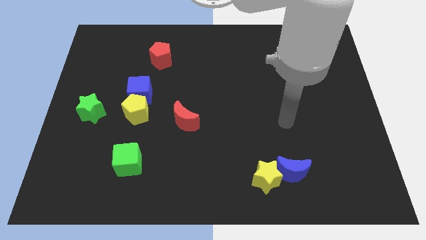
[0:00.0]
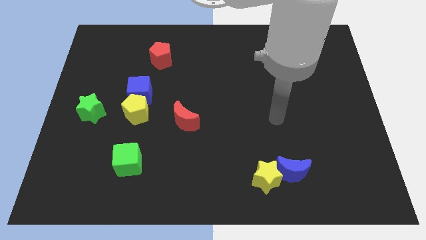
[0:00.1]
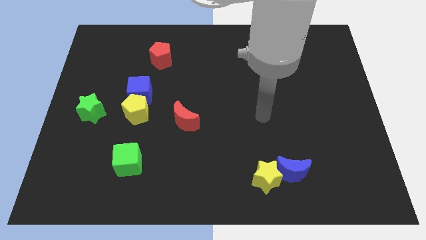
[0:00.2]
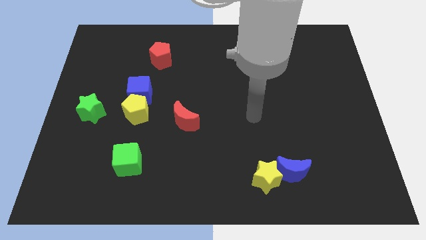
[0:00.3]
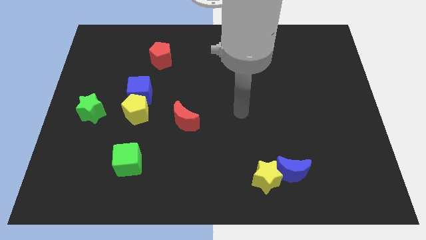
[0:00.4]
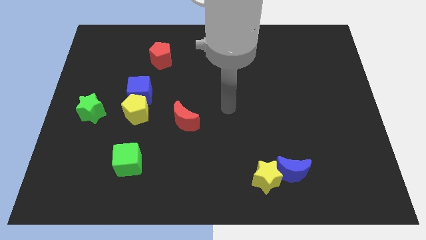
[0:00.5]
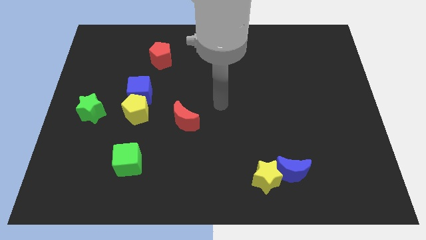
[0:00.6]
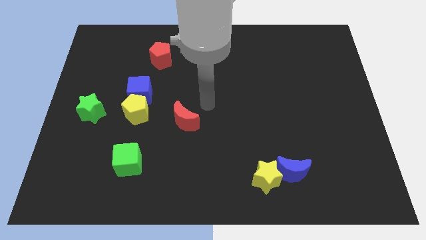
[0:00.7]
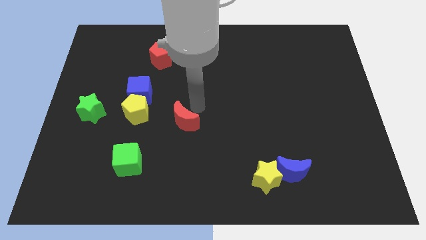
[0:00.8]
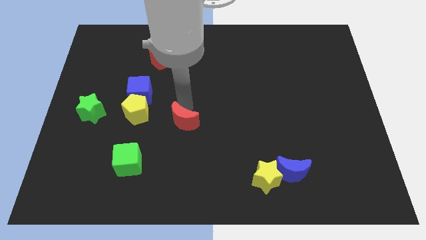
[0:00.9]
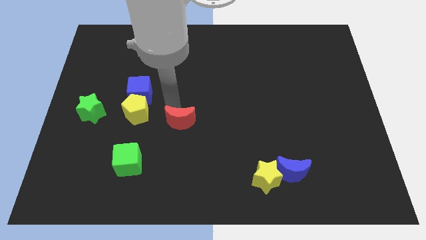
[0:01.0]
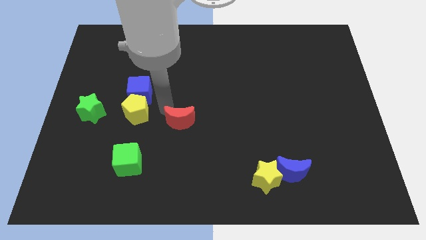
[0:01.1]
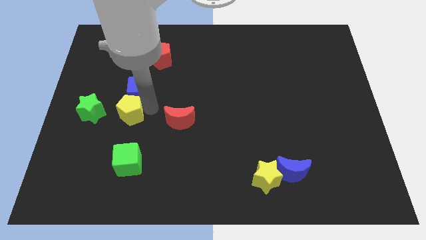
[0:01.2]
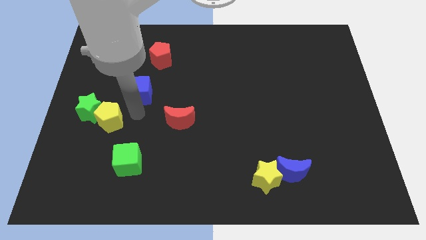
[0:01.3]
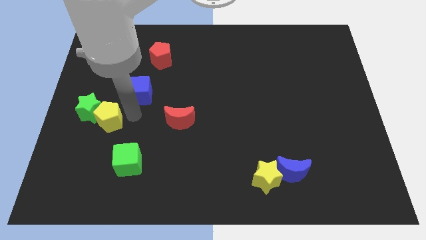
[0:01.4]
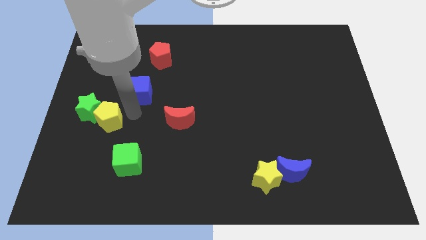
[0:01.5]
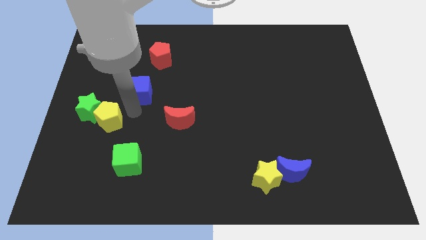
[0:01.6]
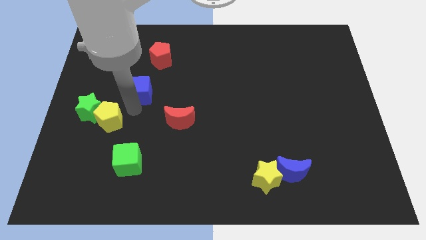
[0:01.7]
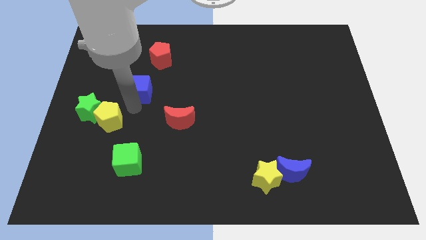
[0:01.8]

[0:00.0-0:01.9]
move the blue cube away from the yellow pentagon

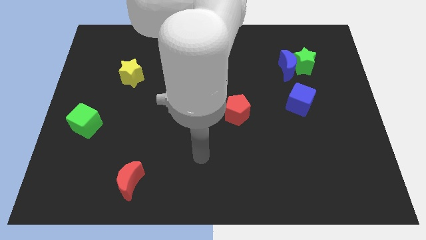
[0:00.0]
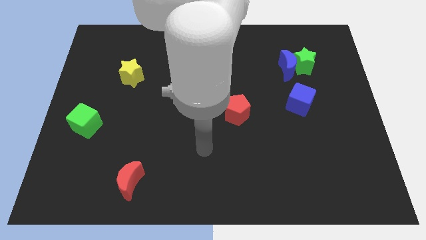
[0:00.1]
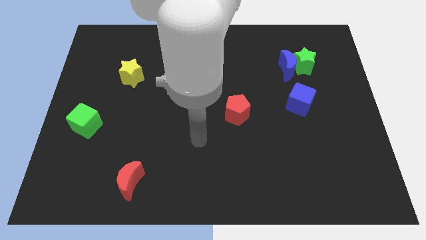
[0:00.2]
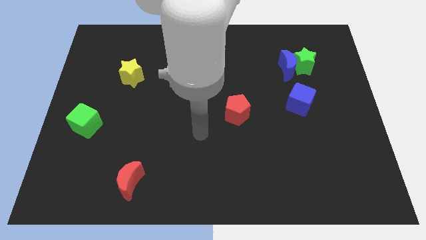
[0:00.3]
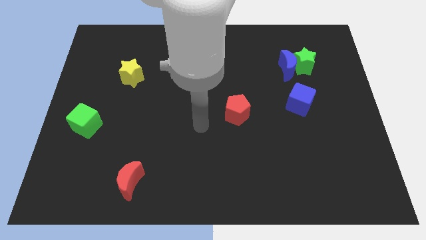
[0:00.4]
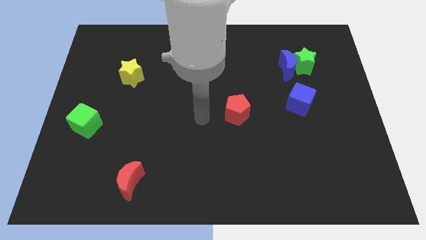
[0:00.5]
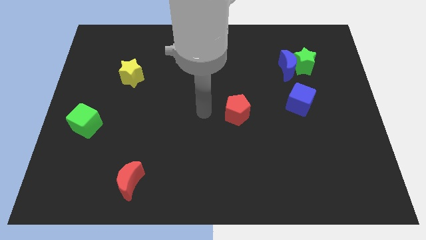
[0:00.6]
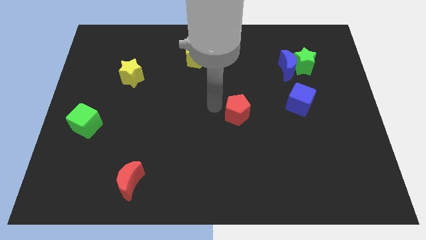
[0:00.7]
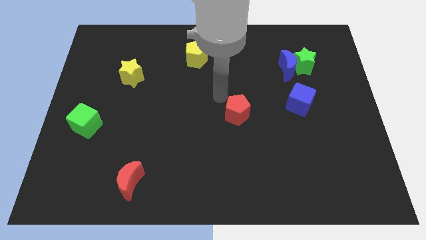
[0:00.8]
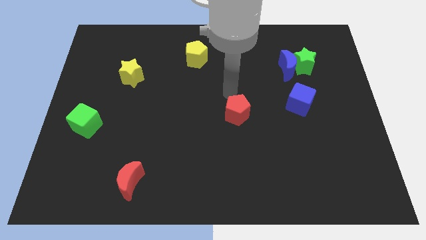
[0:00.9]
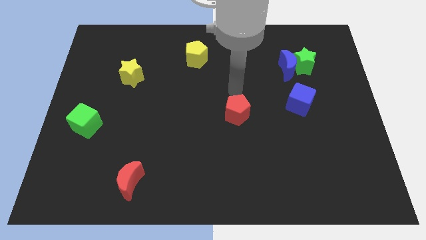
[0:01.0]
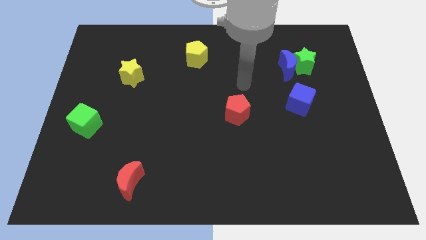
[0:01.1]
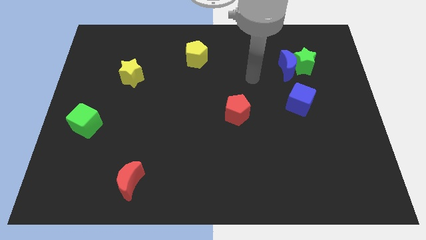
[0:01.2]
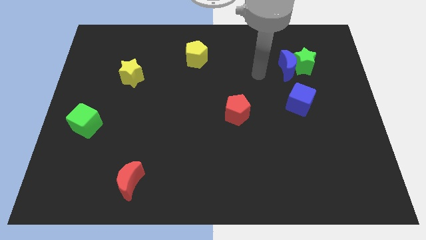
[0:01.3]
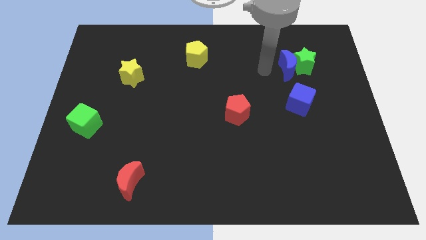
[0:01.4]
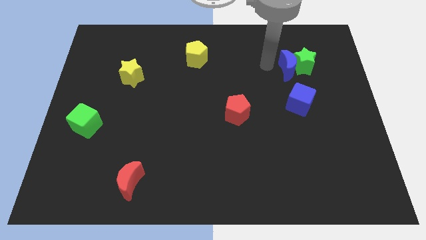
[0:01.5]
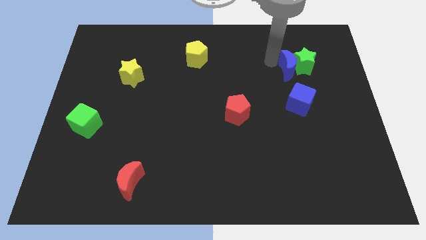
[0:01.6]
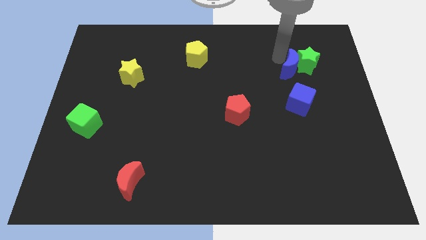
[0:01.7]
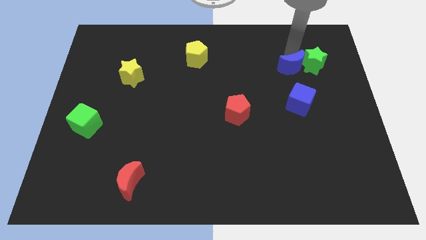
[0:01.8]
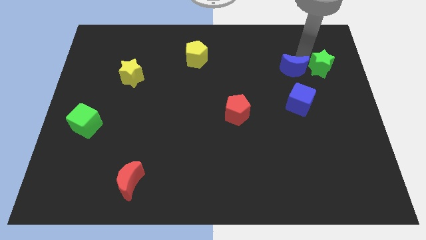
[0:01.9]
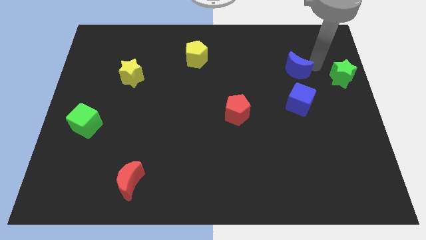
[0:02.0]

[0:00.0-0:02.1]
separate the blue moon from the green star

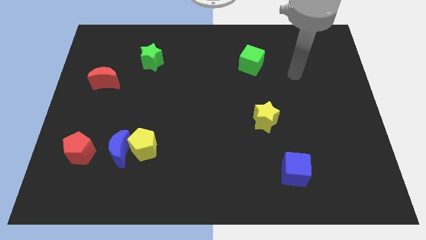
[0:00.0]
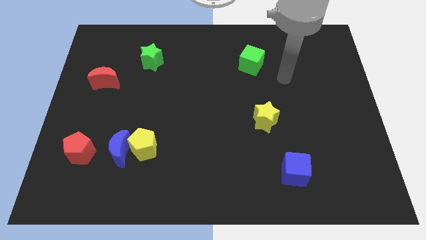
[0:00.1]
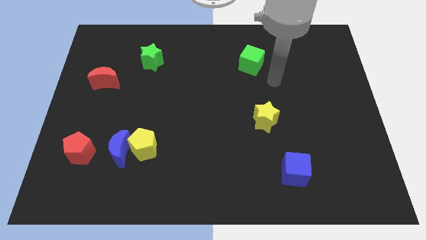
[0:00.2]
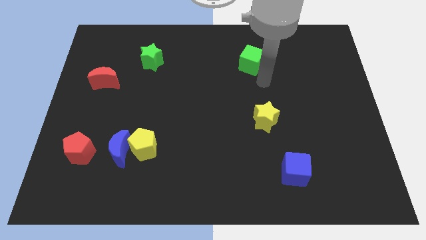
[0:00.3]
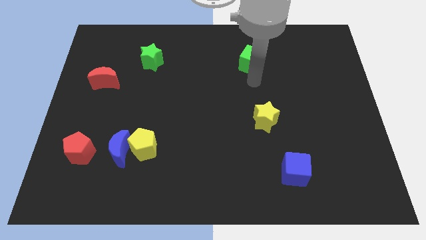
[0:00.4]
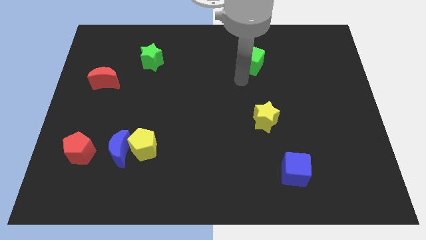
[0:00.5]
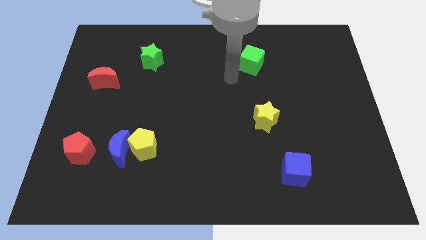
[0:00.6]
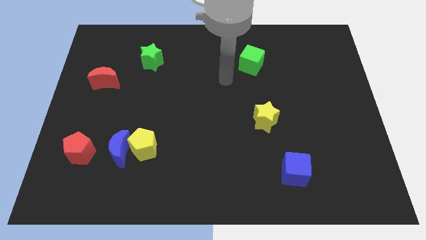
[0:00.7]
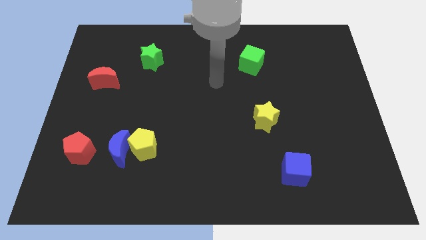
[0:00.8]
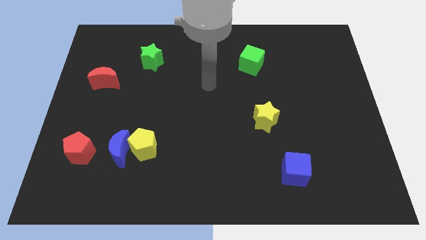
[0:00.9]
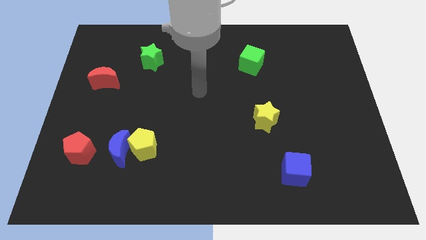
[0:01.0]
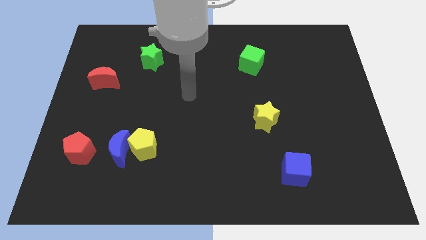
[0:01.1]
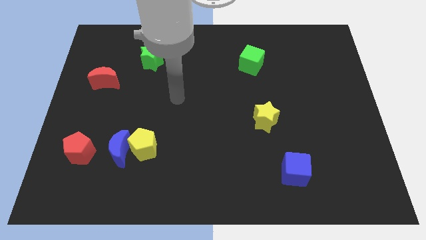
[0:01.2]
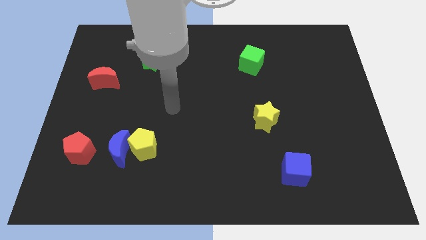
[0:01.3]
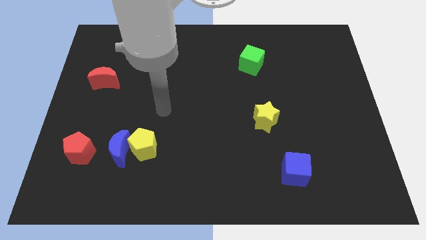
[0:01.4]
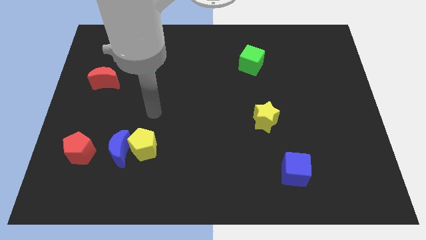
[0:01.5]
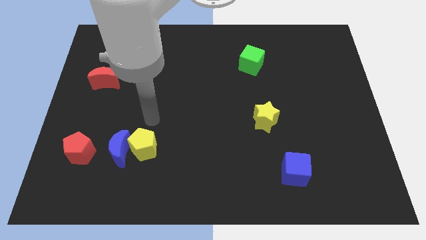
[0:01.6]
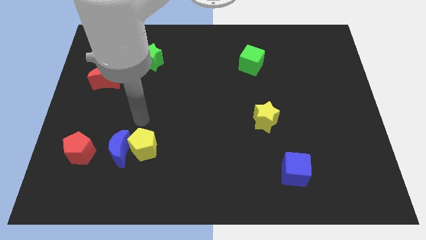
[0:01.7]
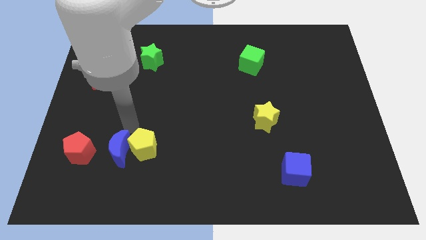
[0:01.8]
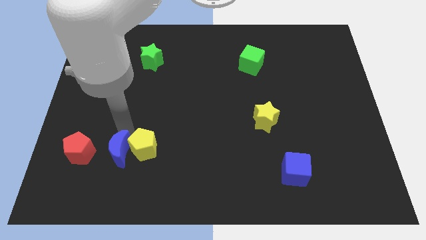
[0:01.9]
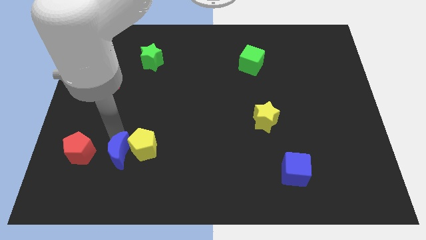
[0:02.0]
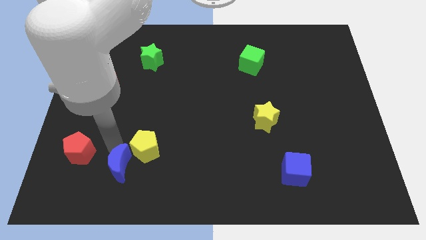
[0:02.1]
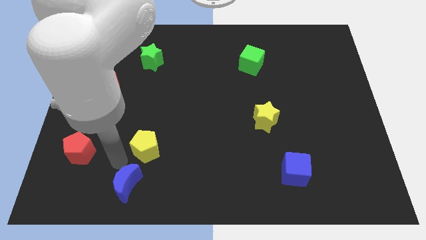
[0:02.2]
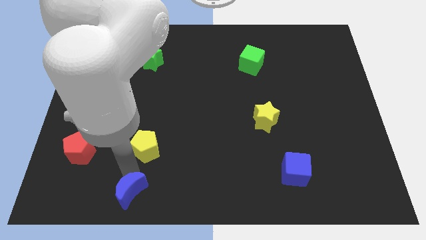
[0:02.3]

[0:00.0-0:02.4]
pull the yellow pentagon apart from the blue moon

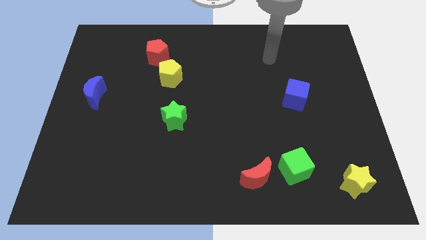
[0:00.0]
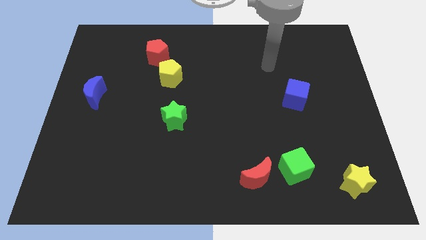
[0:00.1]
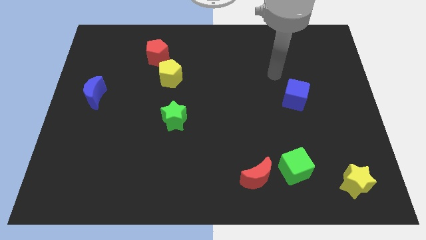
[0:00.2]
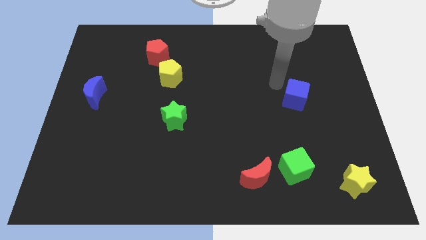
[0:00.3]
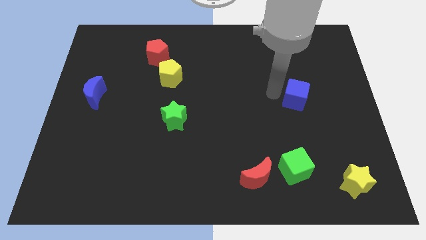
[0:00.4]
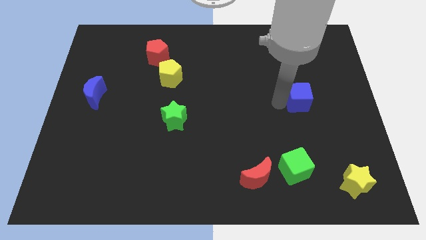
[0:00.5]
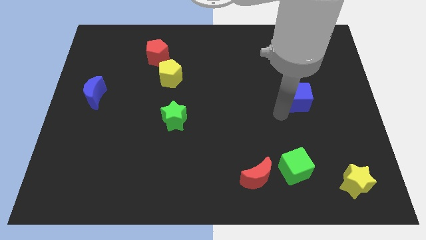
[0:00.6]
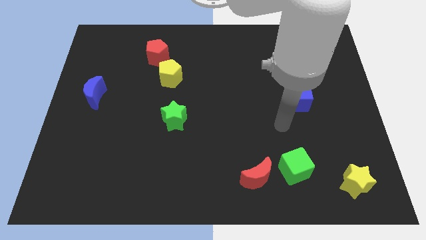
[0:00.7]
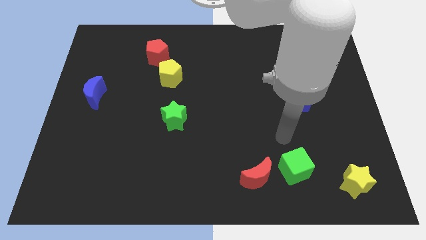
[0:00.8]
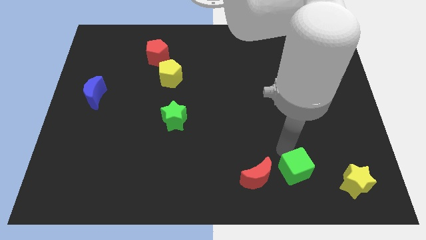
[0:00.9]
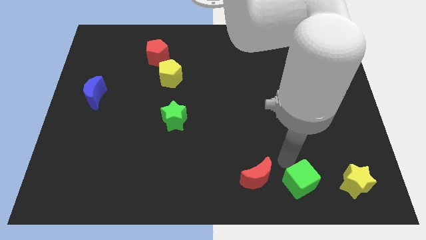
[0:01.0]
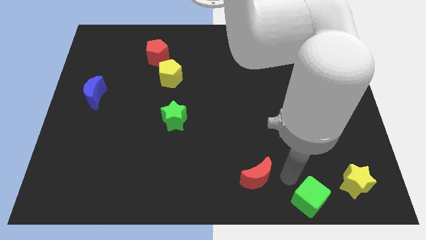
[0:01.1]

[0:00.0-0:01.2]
pull the red moon apart from the green cube

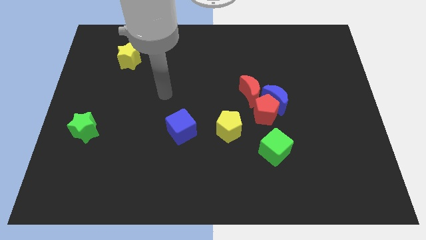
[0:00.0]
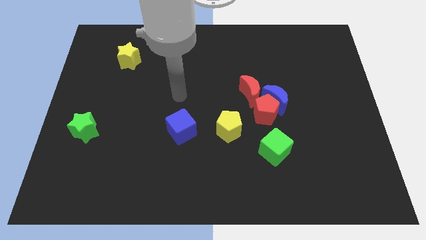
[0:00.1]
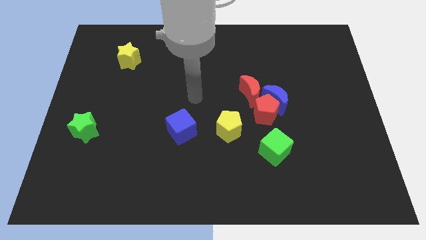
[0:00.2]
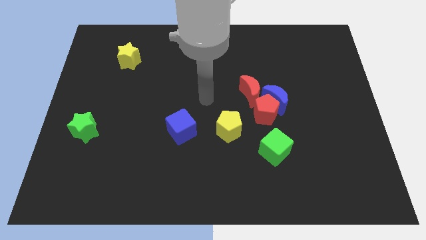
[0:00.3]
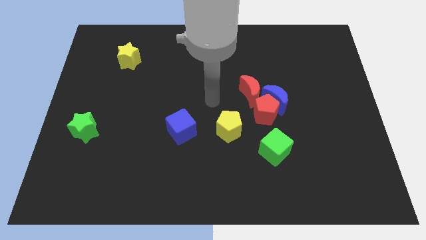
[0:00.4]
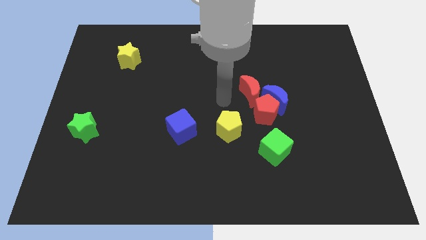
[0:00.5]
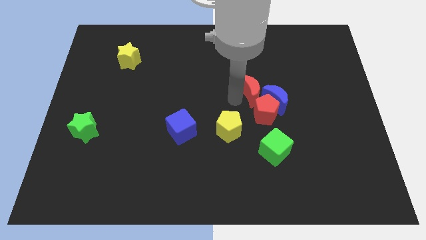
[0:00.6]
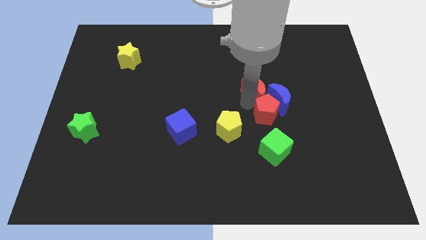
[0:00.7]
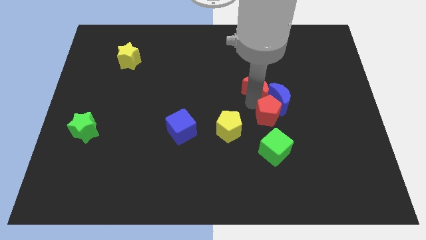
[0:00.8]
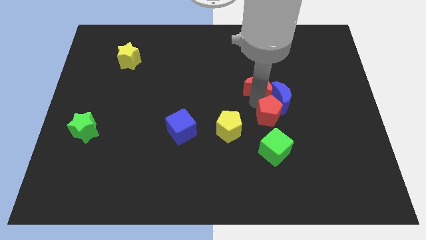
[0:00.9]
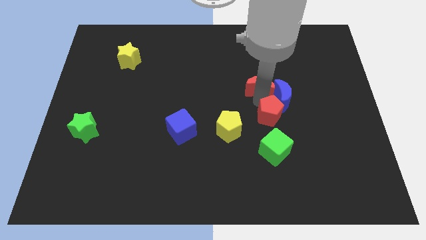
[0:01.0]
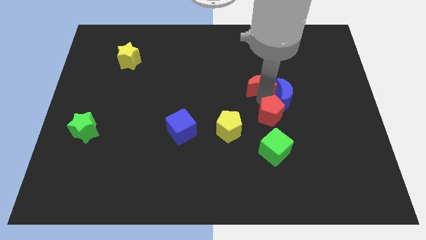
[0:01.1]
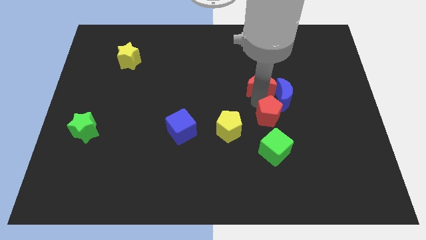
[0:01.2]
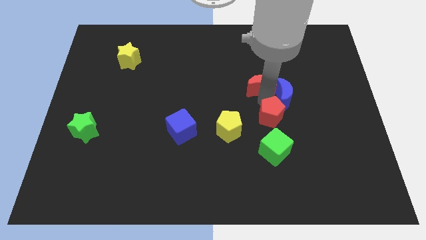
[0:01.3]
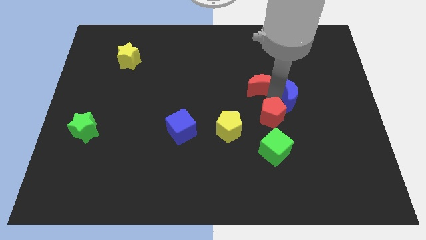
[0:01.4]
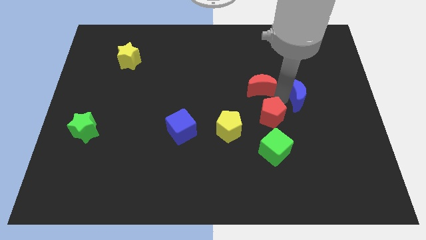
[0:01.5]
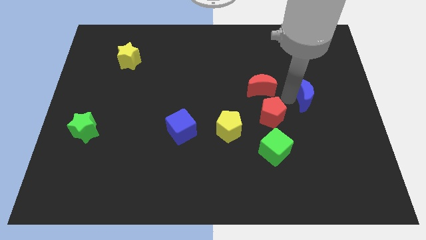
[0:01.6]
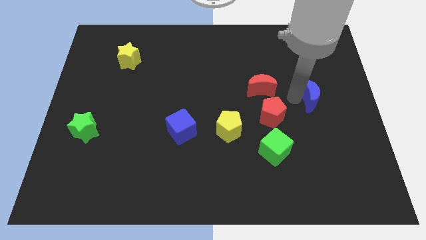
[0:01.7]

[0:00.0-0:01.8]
separate the blue moon from the red pentagon and red moon
